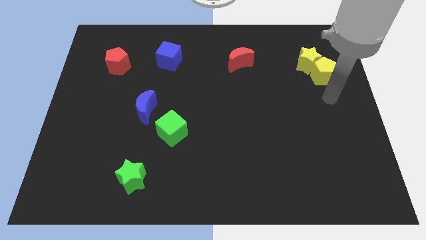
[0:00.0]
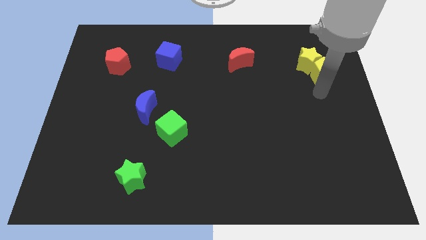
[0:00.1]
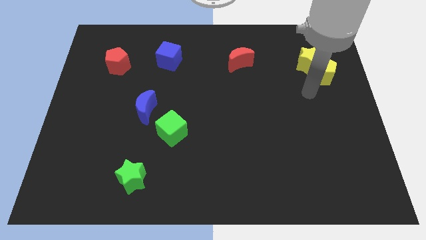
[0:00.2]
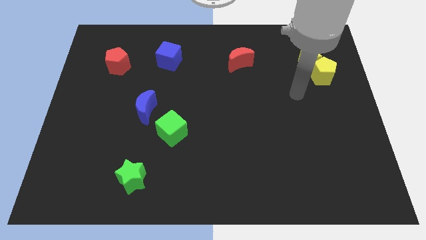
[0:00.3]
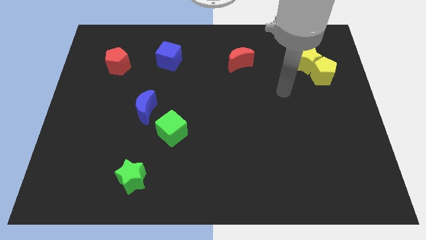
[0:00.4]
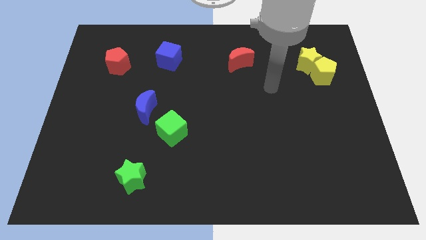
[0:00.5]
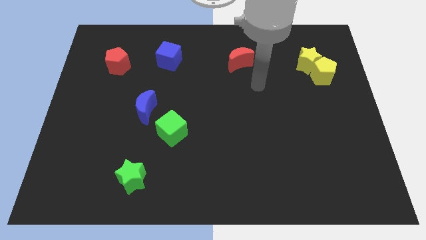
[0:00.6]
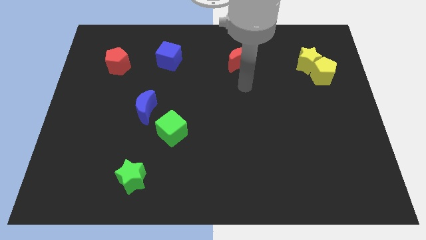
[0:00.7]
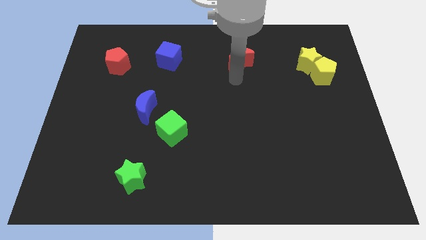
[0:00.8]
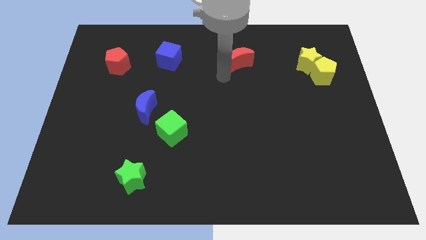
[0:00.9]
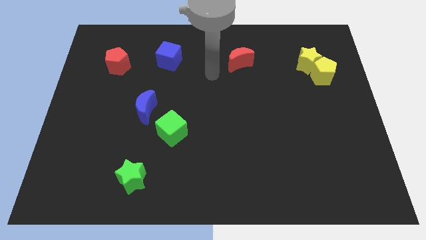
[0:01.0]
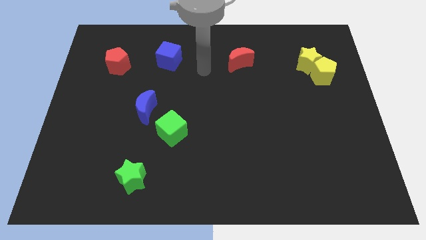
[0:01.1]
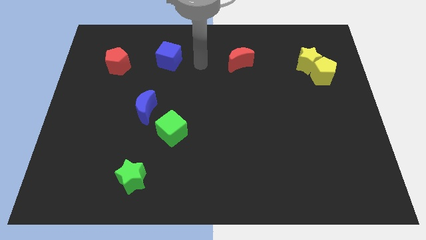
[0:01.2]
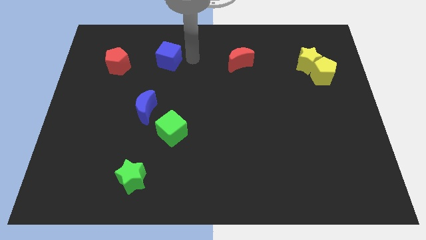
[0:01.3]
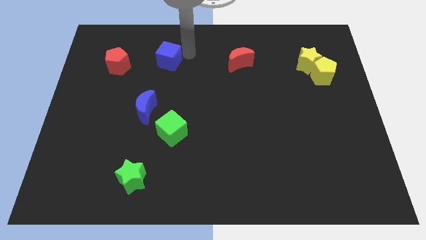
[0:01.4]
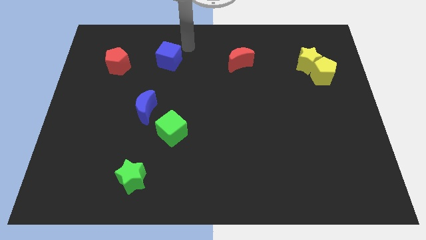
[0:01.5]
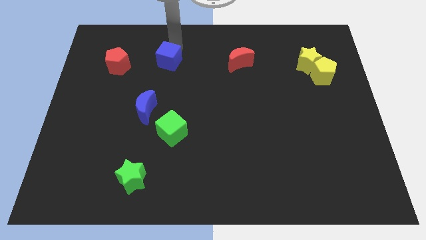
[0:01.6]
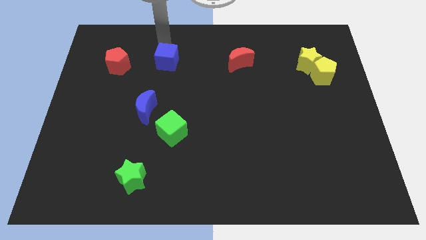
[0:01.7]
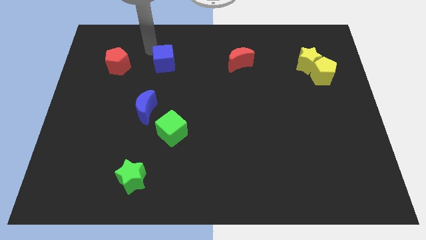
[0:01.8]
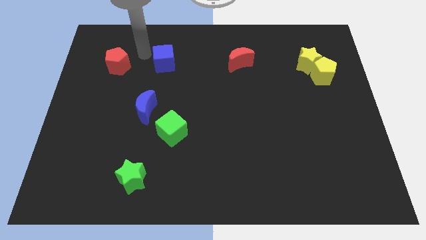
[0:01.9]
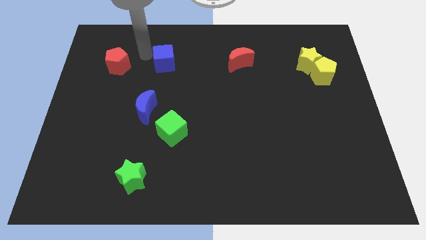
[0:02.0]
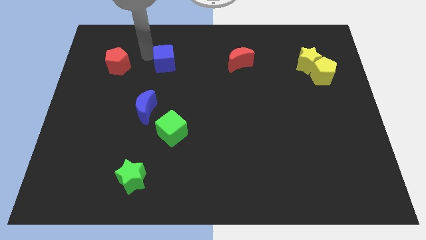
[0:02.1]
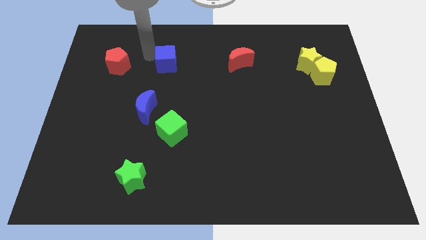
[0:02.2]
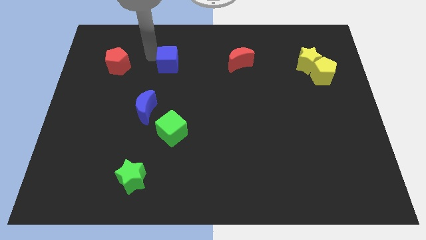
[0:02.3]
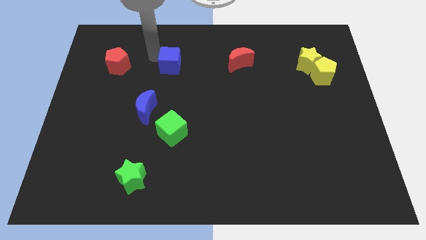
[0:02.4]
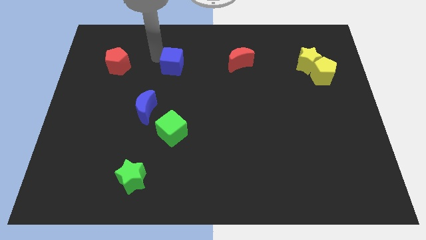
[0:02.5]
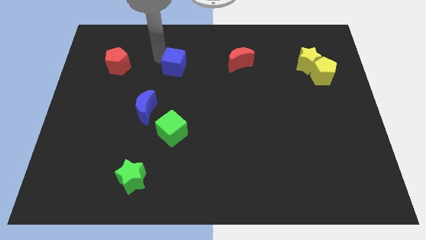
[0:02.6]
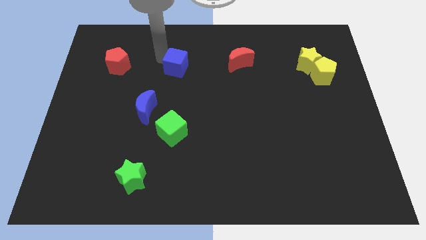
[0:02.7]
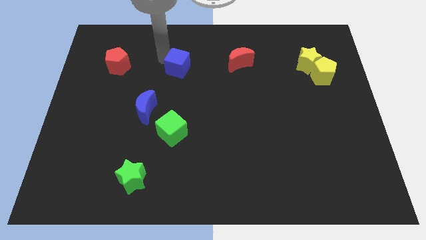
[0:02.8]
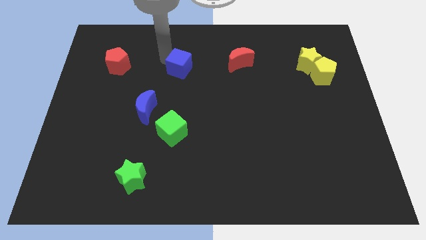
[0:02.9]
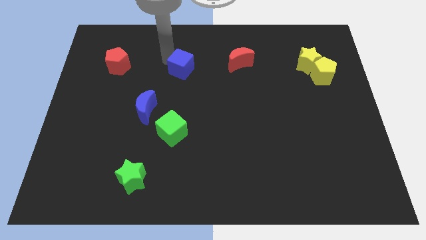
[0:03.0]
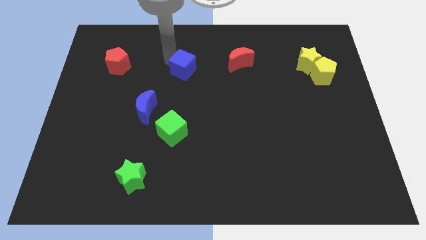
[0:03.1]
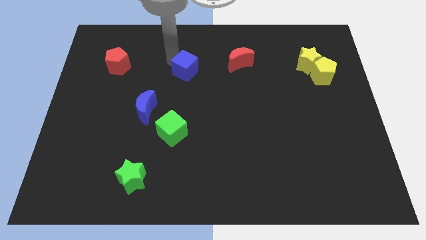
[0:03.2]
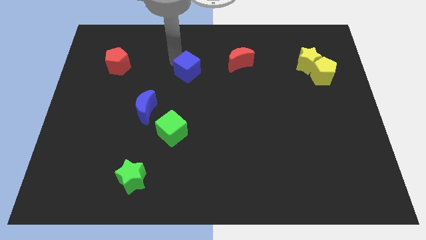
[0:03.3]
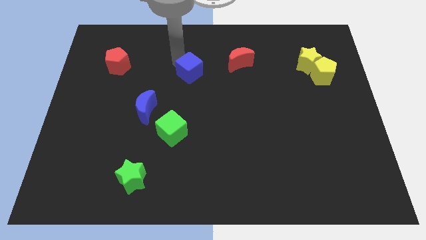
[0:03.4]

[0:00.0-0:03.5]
push the blue cube a little downwards and to the right

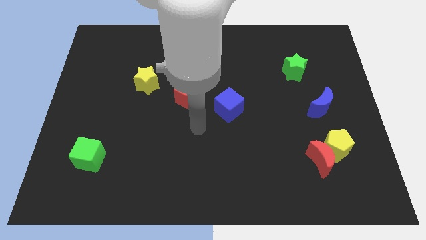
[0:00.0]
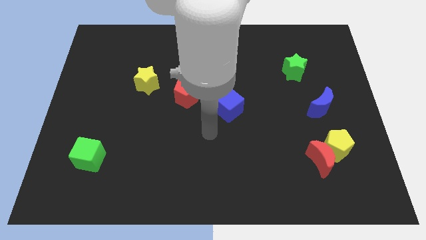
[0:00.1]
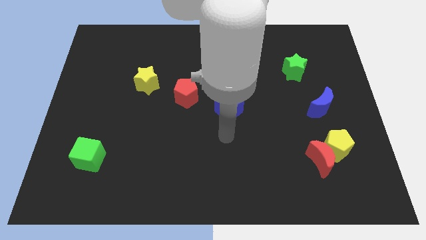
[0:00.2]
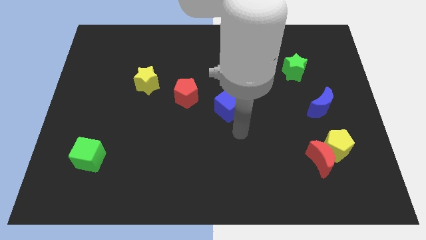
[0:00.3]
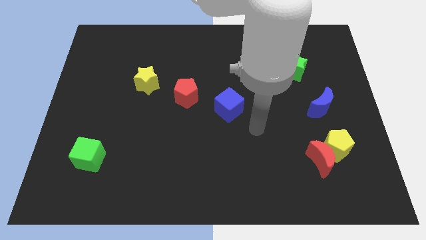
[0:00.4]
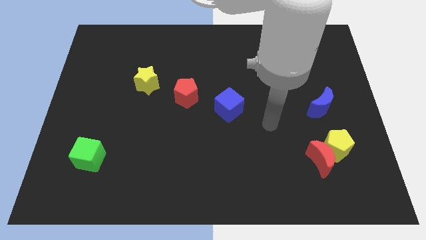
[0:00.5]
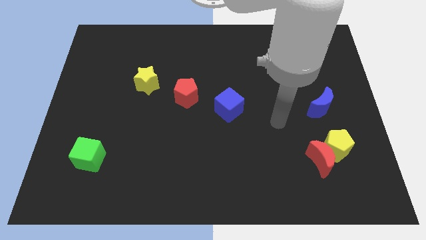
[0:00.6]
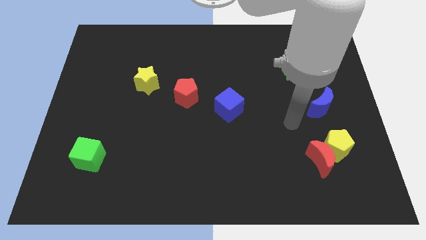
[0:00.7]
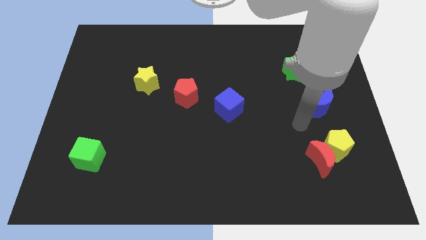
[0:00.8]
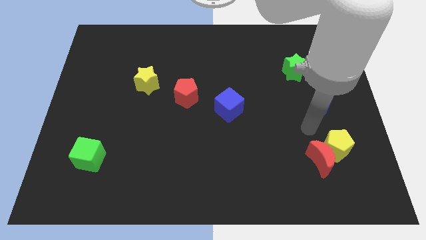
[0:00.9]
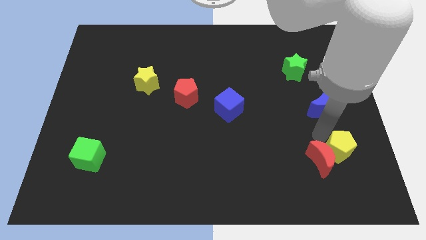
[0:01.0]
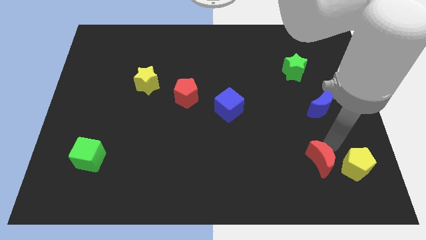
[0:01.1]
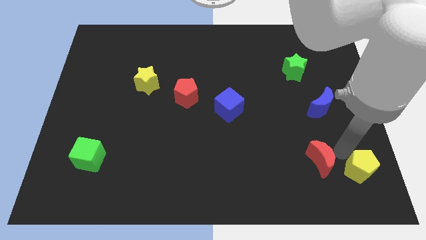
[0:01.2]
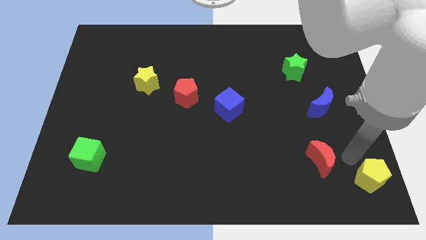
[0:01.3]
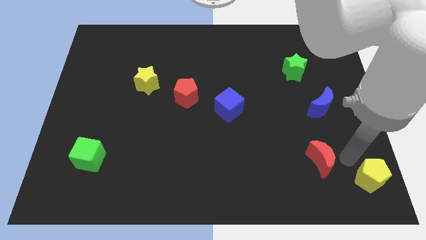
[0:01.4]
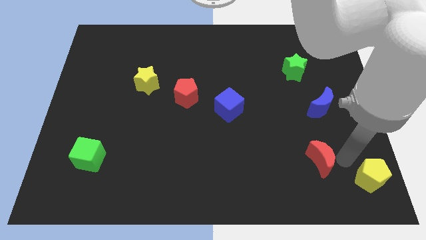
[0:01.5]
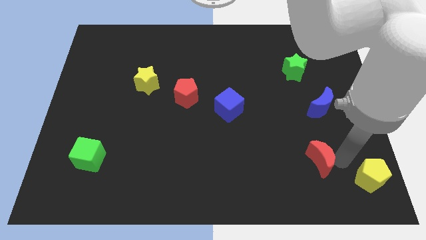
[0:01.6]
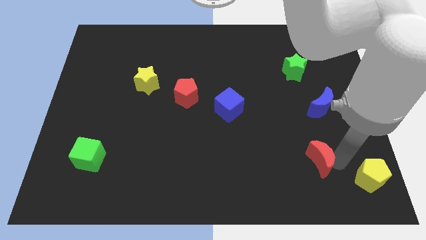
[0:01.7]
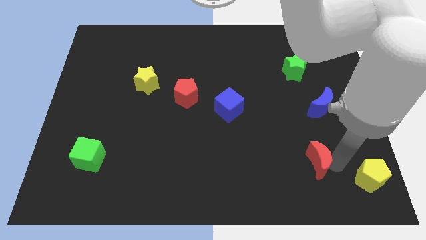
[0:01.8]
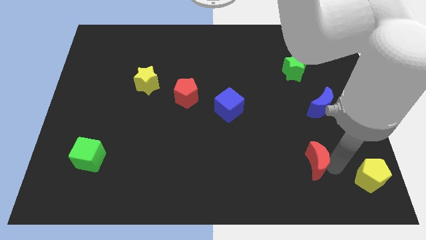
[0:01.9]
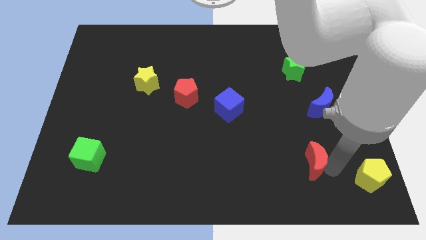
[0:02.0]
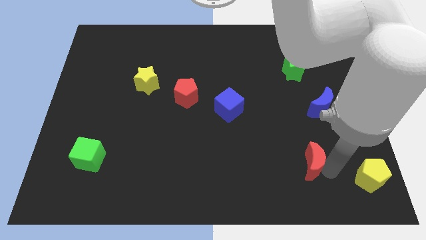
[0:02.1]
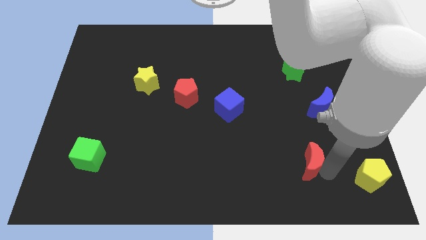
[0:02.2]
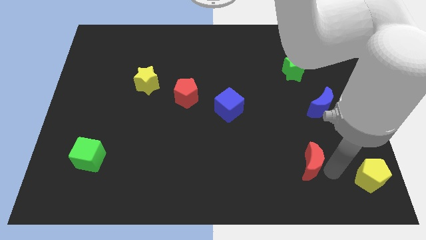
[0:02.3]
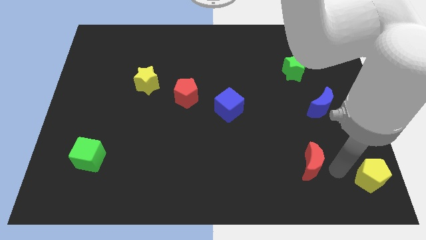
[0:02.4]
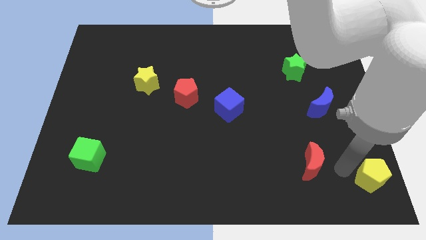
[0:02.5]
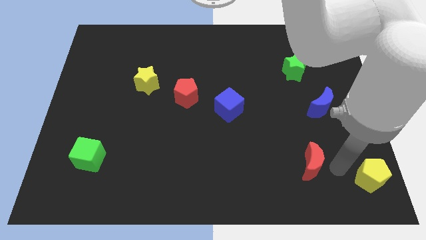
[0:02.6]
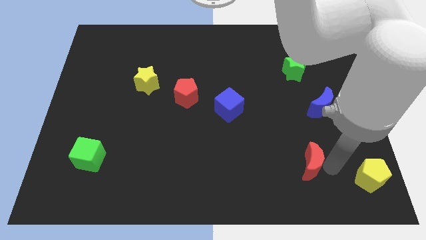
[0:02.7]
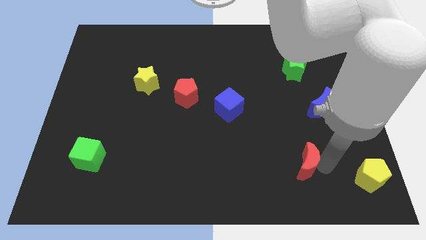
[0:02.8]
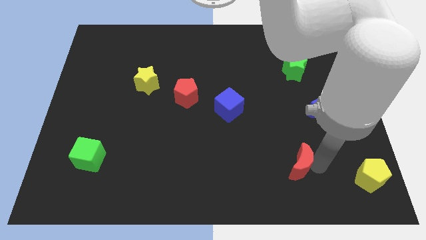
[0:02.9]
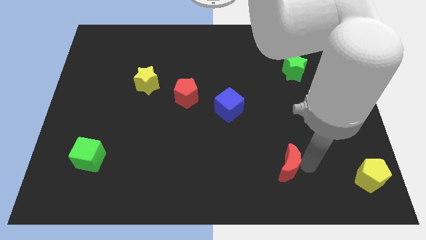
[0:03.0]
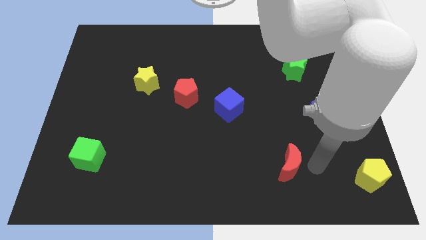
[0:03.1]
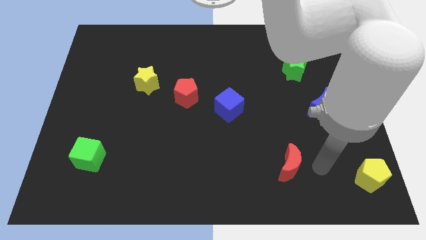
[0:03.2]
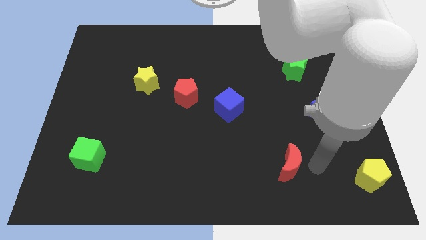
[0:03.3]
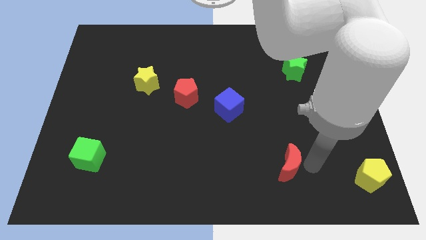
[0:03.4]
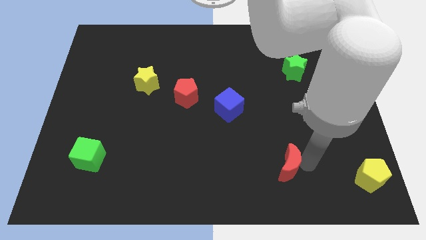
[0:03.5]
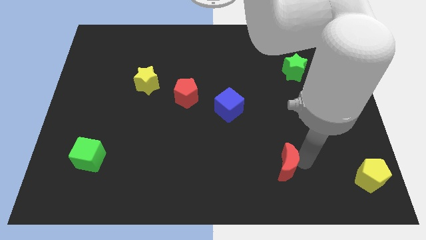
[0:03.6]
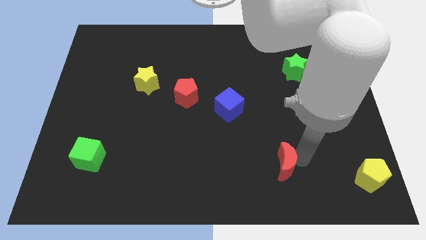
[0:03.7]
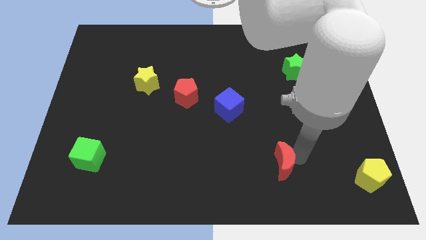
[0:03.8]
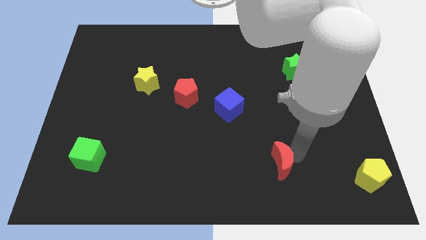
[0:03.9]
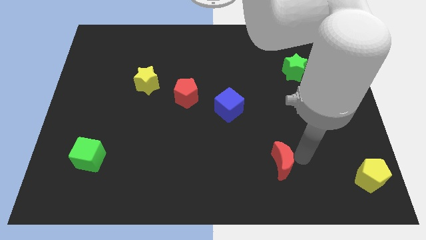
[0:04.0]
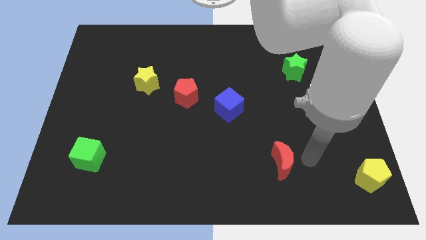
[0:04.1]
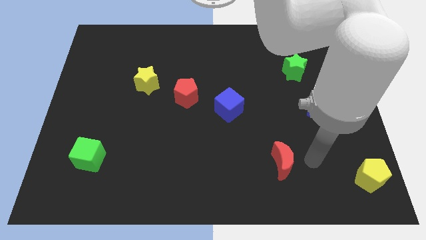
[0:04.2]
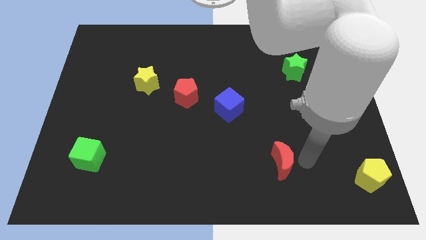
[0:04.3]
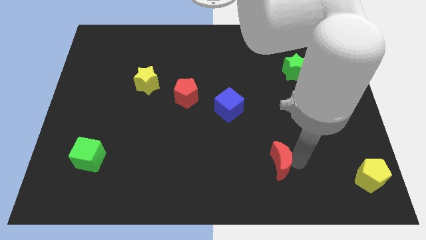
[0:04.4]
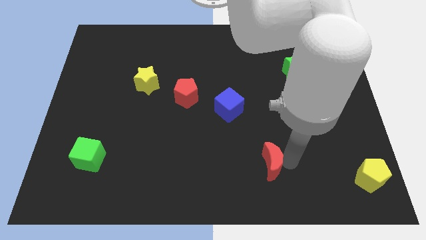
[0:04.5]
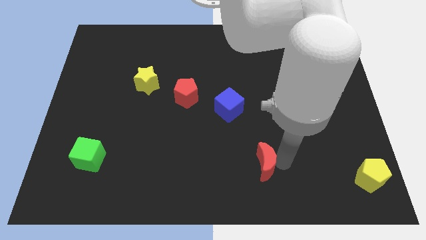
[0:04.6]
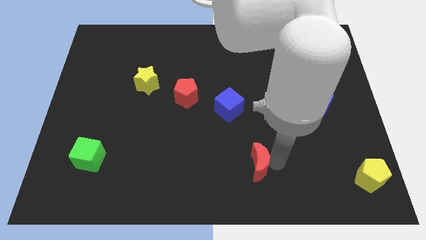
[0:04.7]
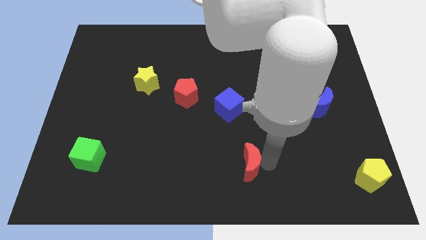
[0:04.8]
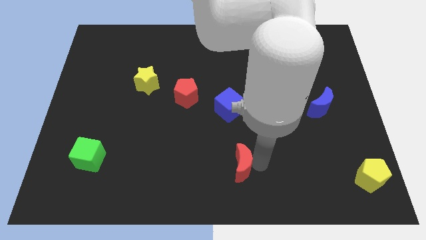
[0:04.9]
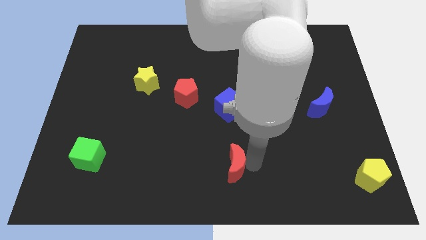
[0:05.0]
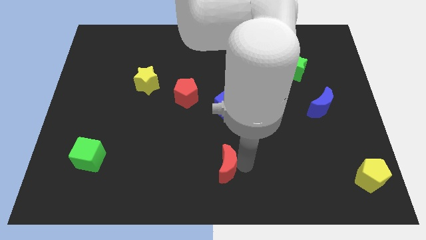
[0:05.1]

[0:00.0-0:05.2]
push the red moon to the left

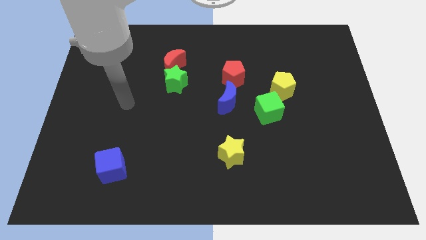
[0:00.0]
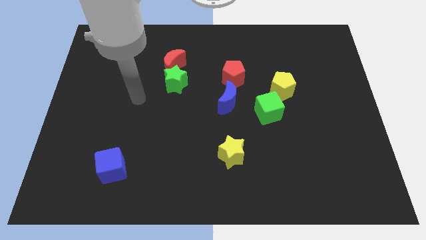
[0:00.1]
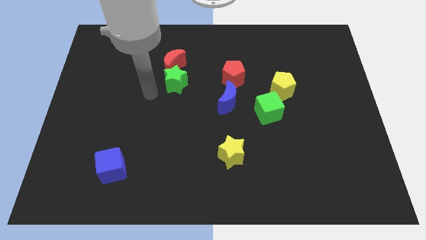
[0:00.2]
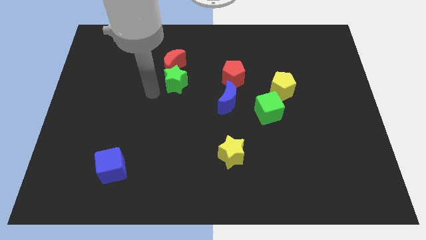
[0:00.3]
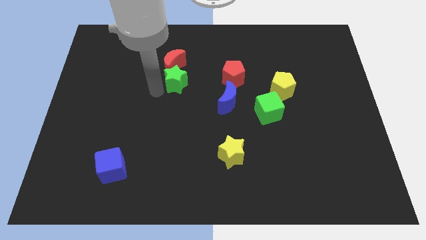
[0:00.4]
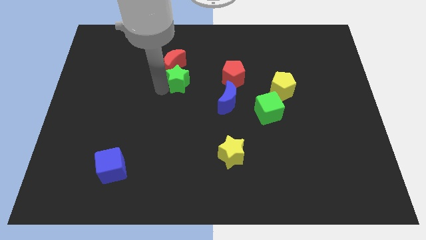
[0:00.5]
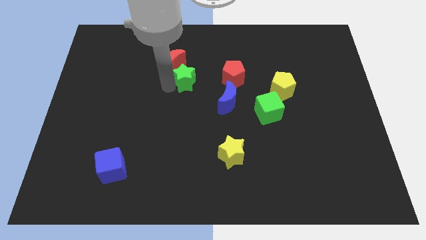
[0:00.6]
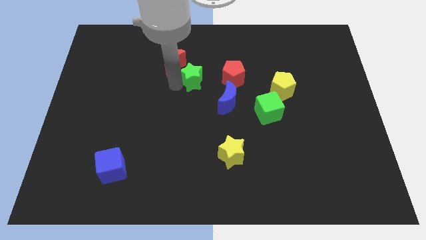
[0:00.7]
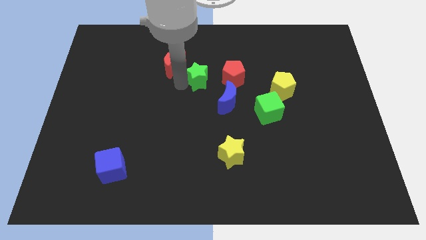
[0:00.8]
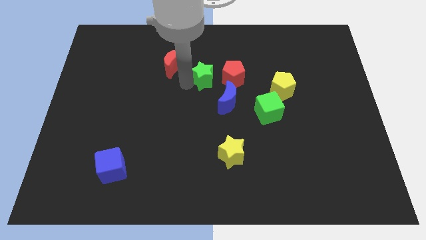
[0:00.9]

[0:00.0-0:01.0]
slightly move the green star right
